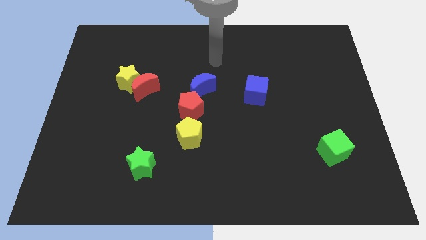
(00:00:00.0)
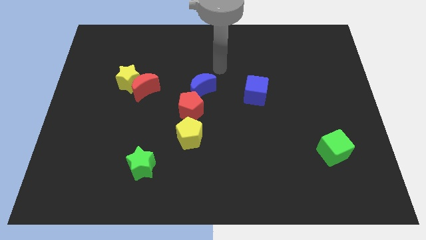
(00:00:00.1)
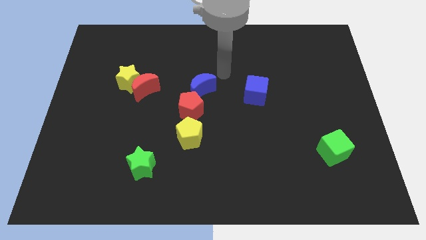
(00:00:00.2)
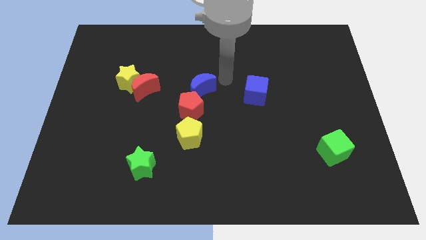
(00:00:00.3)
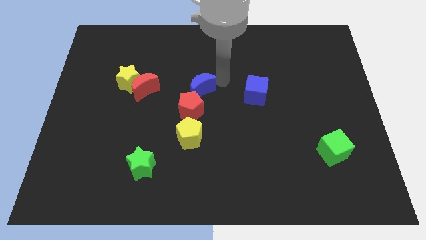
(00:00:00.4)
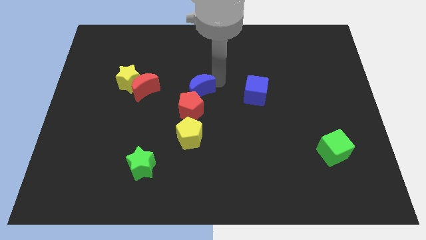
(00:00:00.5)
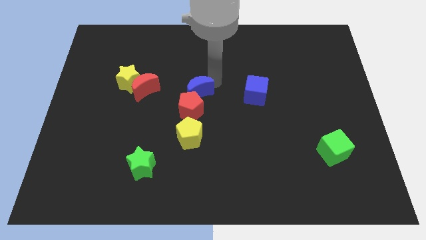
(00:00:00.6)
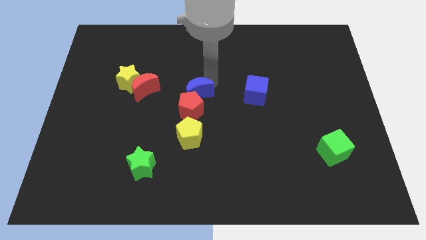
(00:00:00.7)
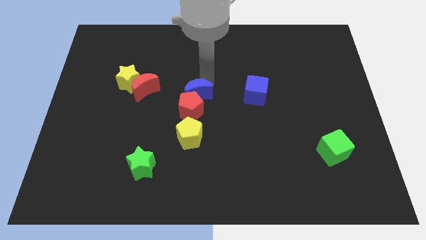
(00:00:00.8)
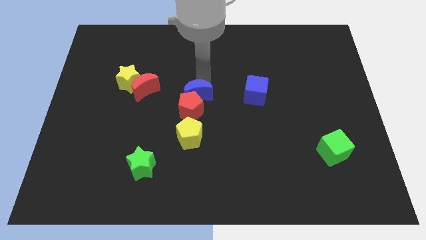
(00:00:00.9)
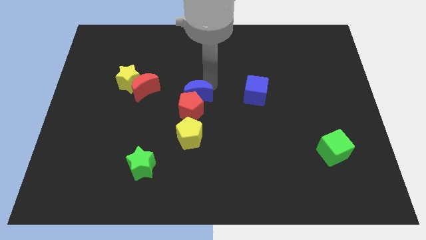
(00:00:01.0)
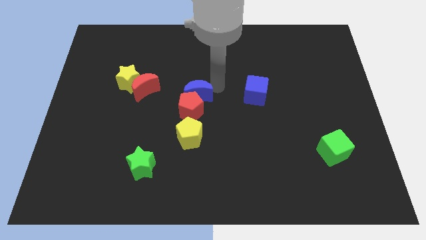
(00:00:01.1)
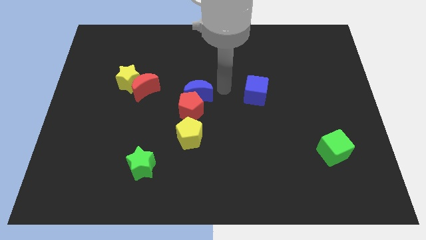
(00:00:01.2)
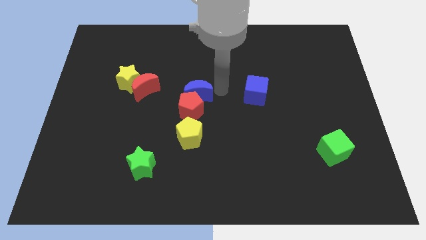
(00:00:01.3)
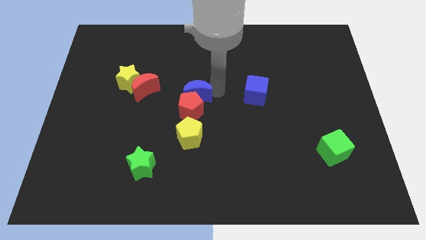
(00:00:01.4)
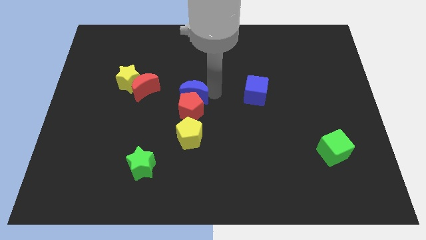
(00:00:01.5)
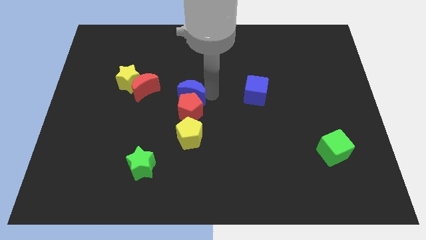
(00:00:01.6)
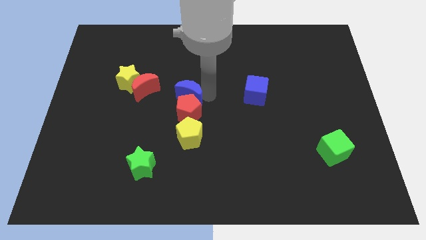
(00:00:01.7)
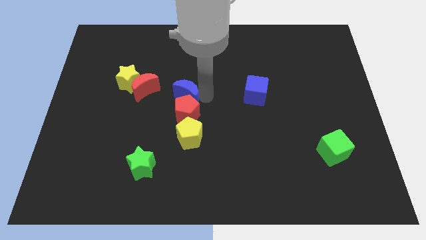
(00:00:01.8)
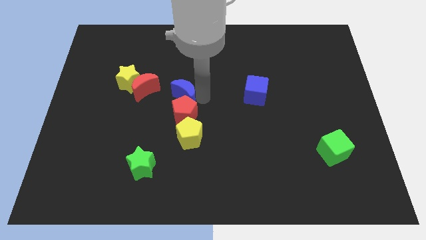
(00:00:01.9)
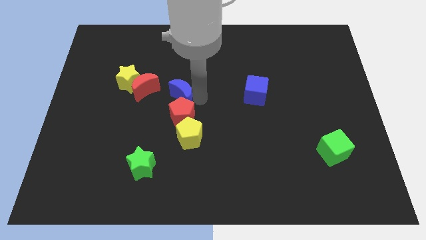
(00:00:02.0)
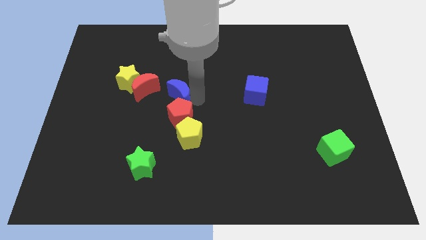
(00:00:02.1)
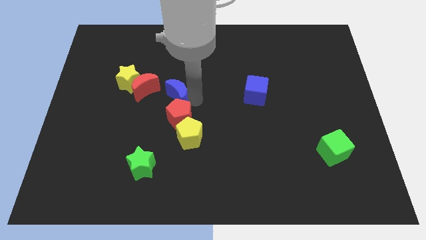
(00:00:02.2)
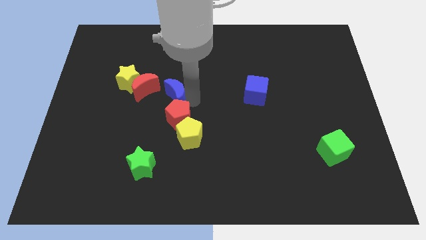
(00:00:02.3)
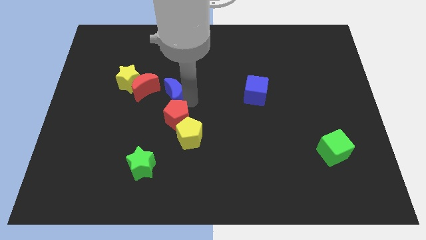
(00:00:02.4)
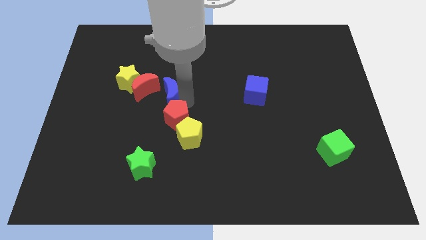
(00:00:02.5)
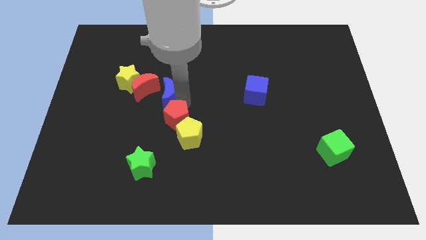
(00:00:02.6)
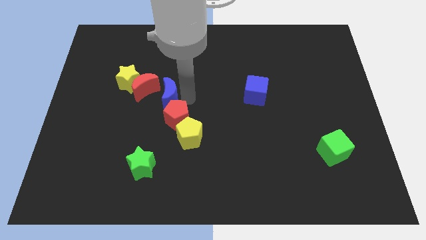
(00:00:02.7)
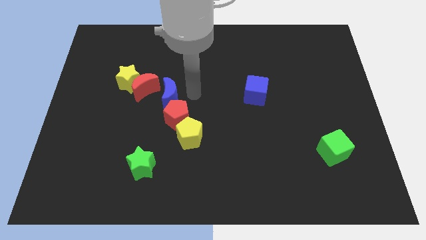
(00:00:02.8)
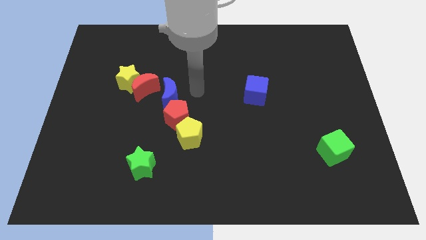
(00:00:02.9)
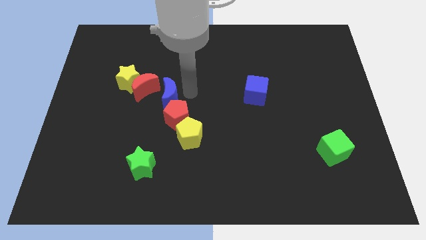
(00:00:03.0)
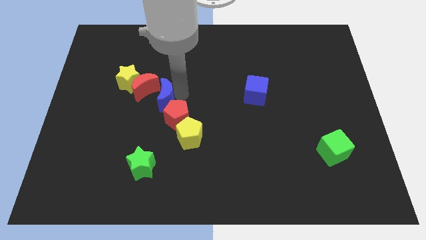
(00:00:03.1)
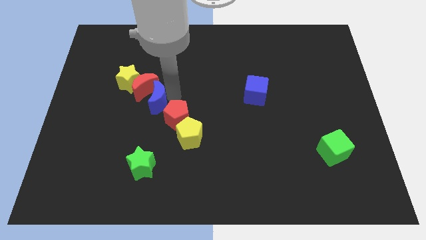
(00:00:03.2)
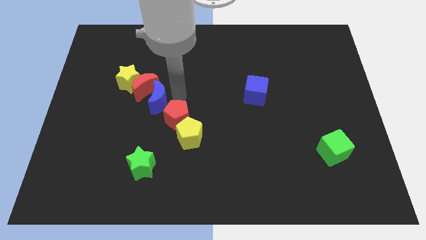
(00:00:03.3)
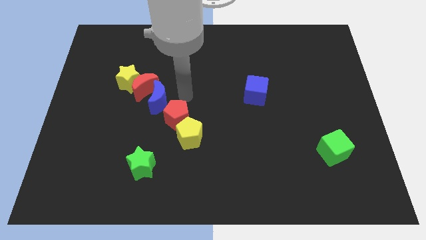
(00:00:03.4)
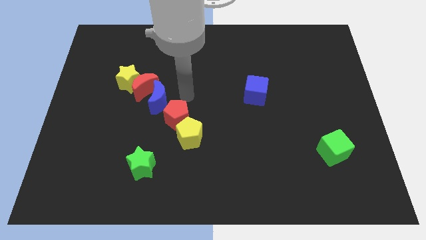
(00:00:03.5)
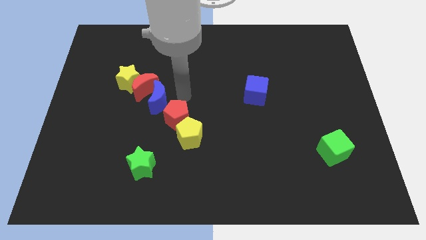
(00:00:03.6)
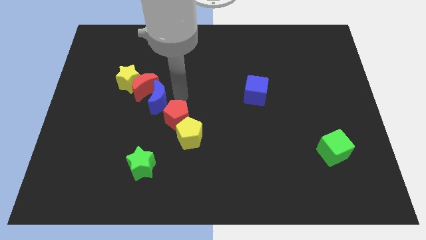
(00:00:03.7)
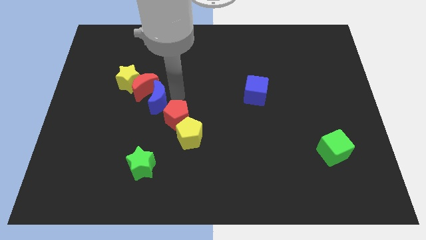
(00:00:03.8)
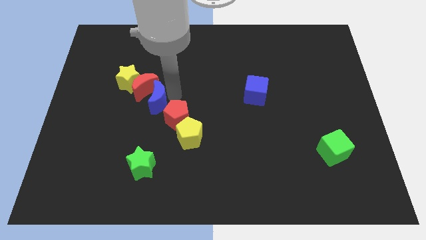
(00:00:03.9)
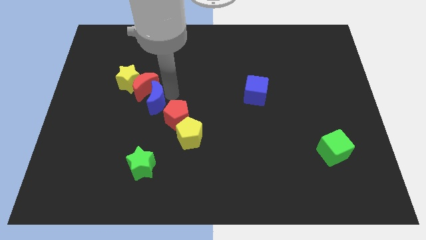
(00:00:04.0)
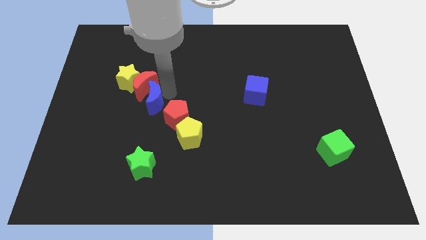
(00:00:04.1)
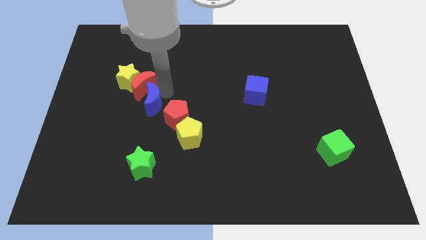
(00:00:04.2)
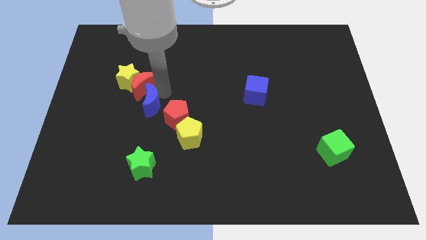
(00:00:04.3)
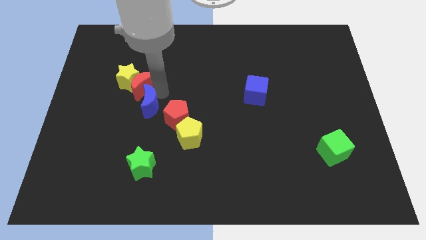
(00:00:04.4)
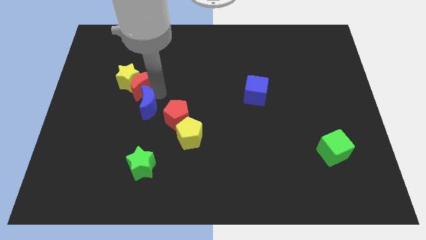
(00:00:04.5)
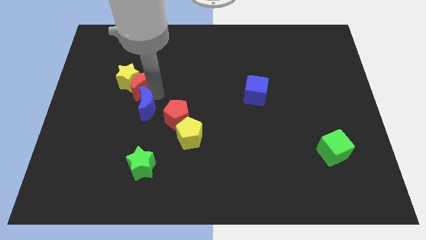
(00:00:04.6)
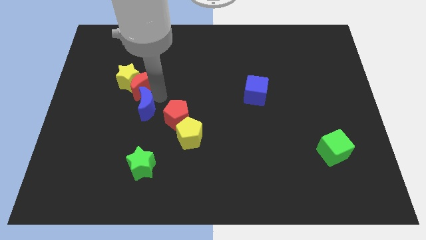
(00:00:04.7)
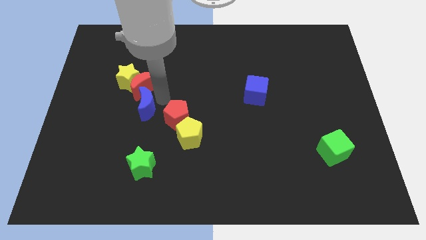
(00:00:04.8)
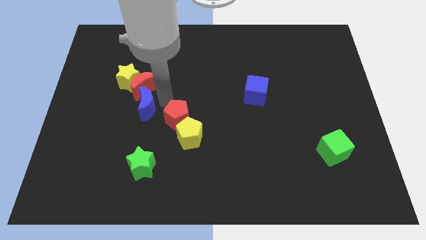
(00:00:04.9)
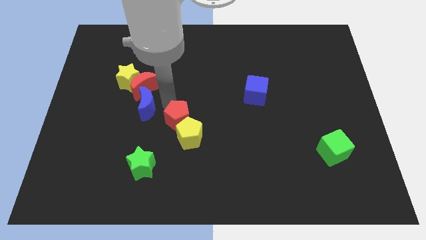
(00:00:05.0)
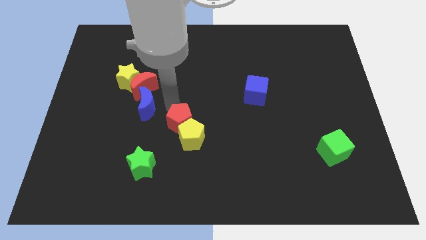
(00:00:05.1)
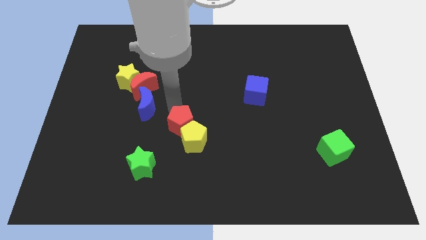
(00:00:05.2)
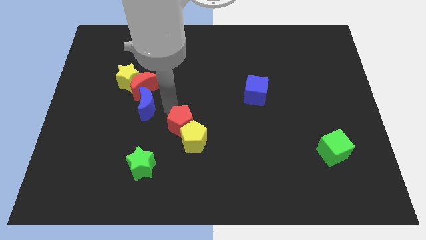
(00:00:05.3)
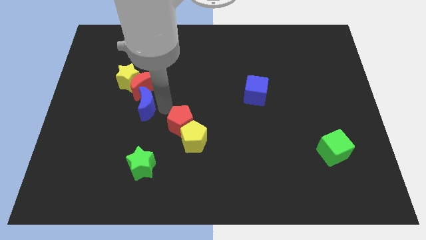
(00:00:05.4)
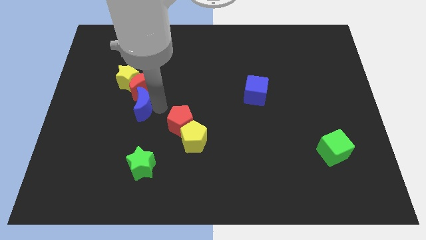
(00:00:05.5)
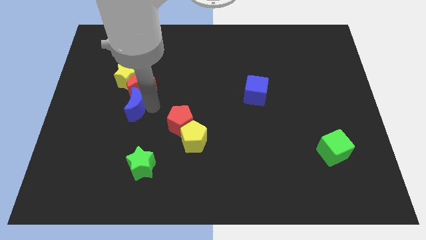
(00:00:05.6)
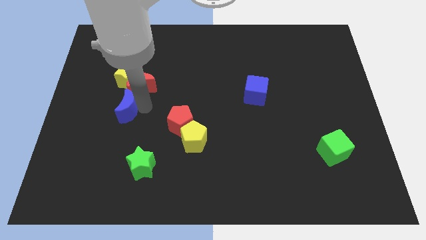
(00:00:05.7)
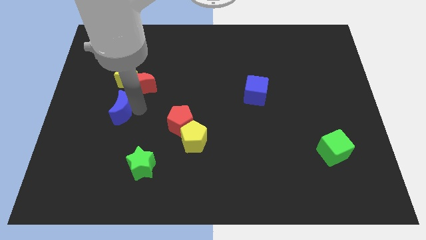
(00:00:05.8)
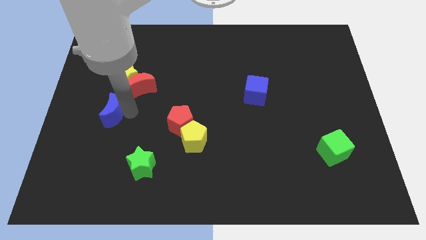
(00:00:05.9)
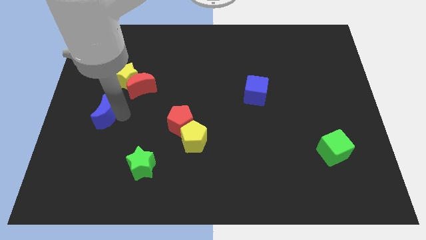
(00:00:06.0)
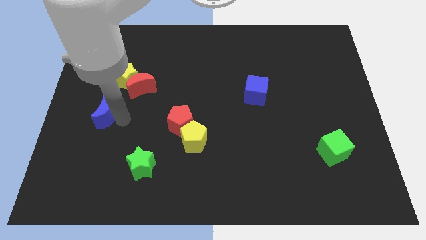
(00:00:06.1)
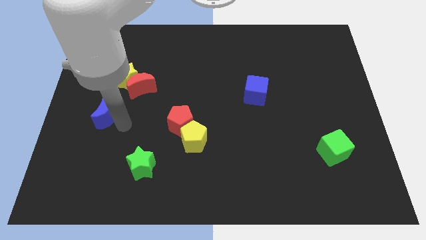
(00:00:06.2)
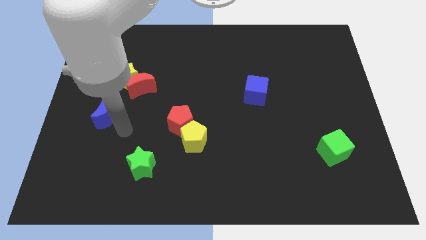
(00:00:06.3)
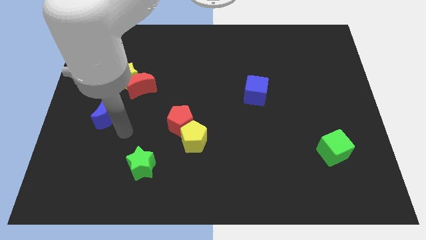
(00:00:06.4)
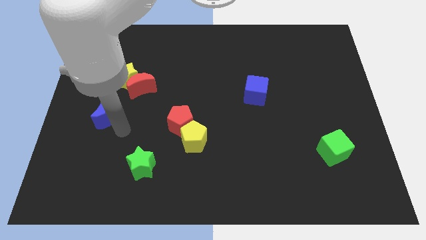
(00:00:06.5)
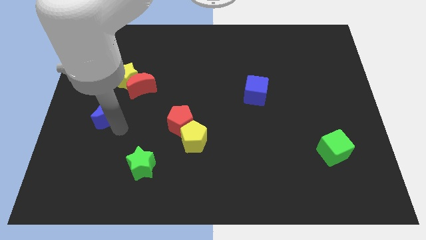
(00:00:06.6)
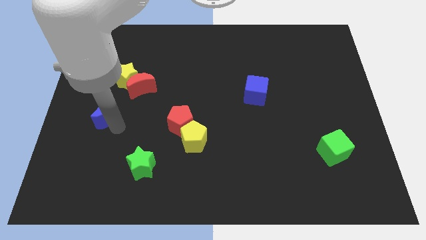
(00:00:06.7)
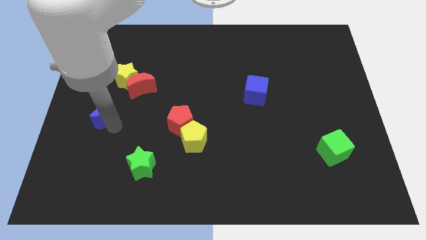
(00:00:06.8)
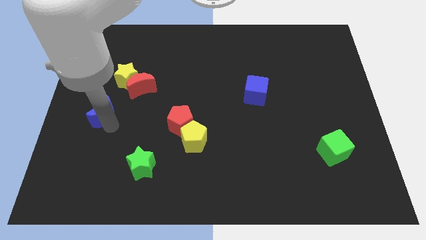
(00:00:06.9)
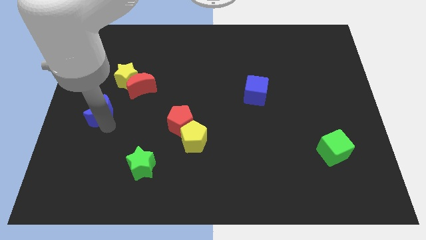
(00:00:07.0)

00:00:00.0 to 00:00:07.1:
put the blue moon to the center left
